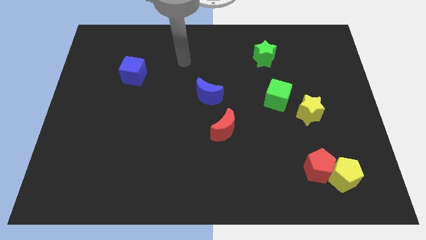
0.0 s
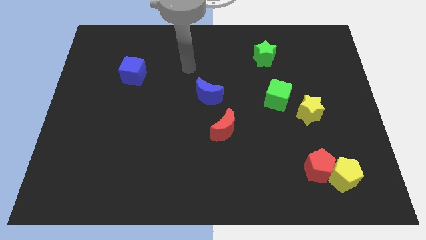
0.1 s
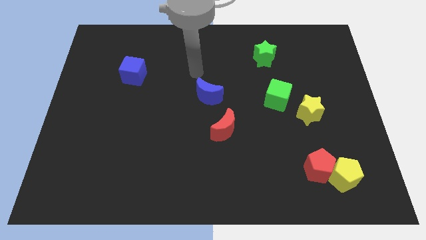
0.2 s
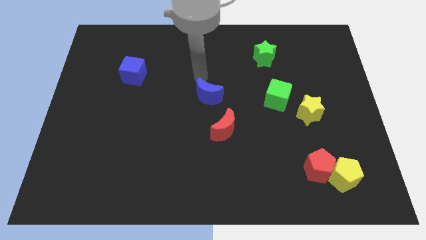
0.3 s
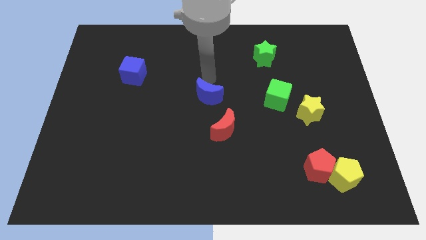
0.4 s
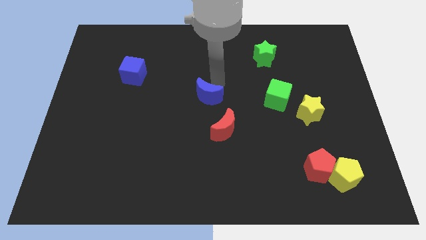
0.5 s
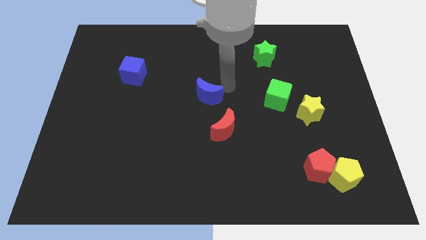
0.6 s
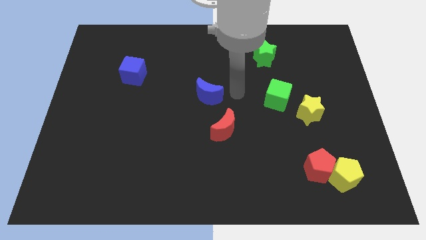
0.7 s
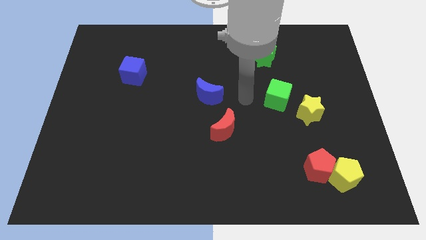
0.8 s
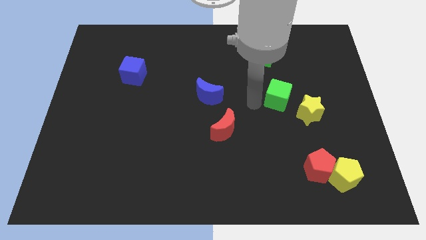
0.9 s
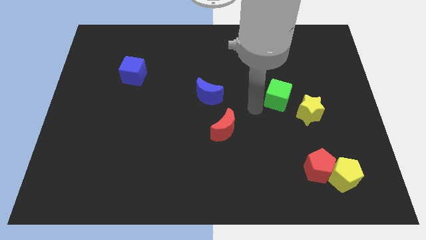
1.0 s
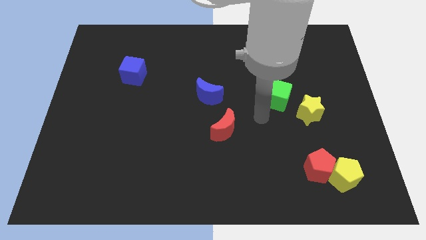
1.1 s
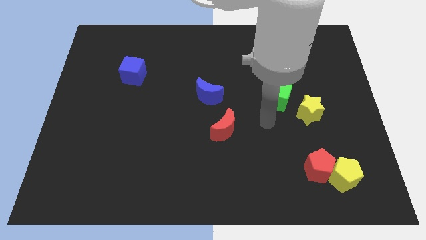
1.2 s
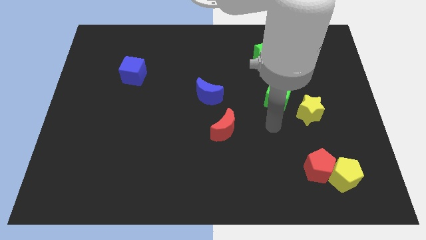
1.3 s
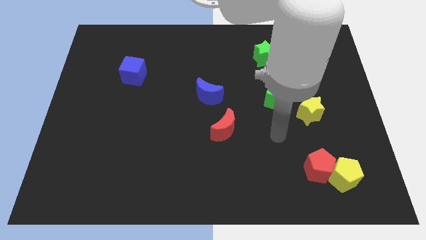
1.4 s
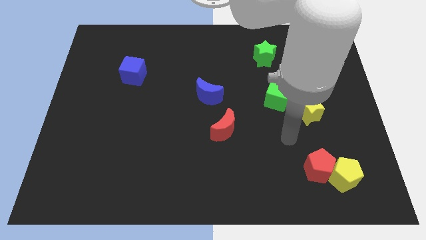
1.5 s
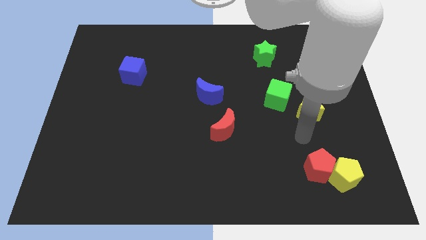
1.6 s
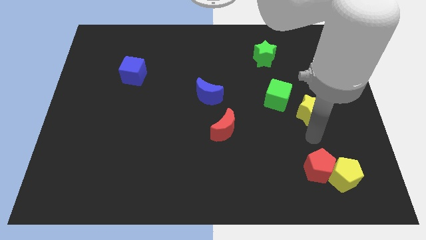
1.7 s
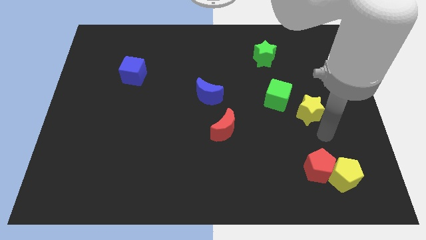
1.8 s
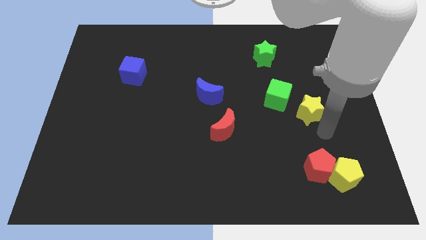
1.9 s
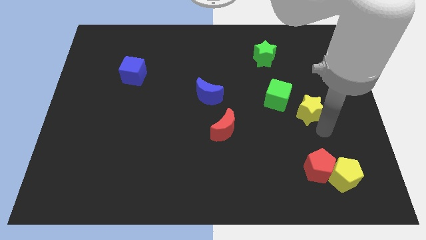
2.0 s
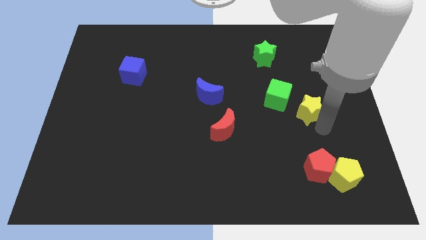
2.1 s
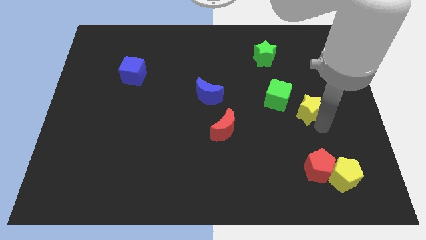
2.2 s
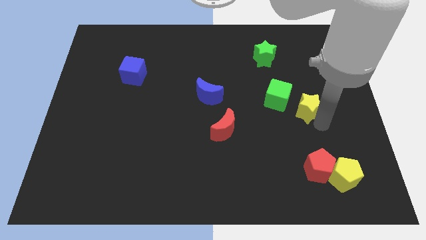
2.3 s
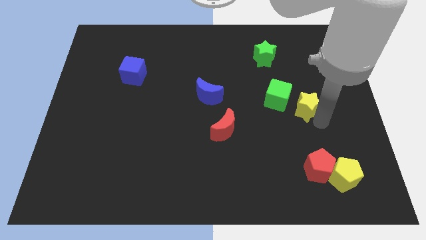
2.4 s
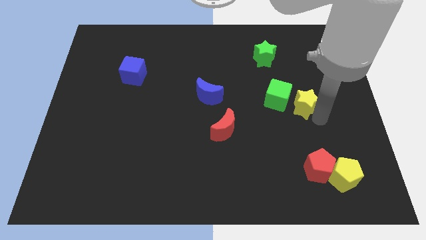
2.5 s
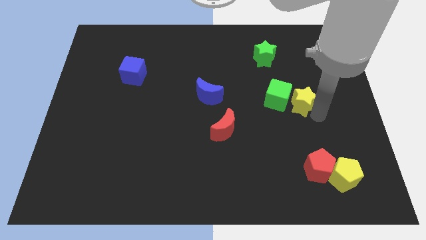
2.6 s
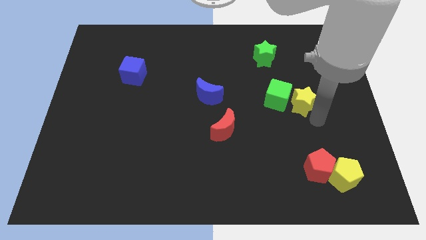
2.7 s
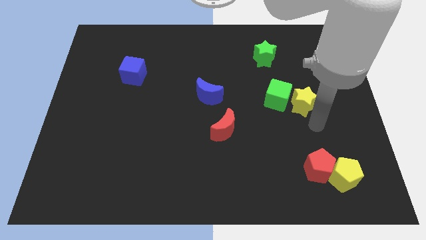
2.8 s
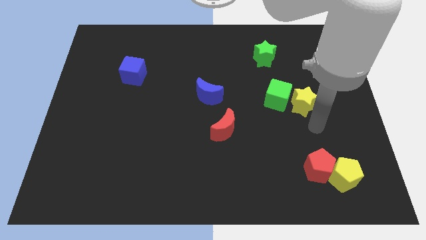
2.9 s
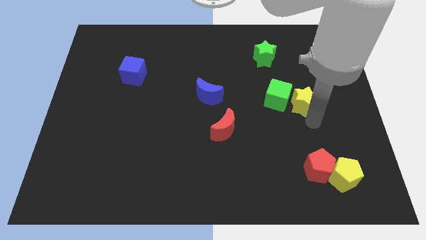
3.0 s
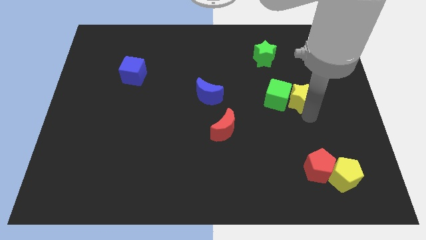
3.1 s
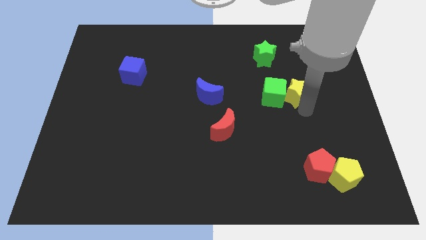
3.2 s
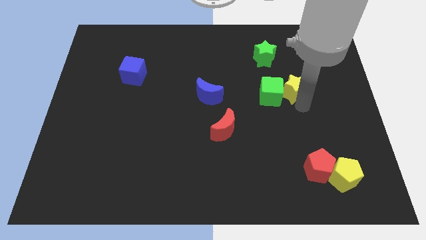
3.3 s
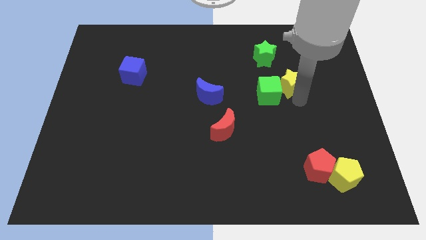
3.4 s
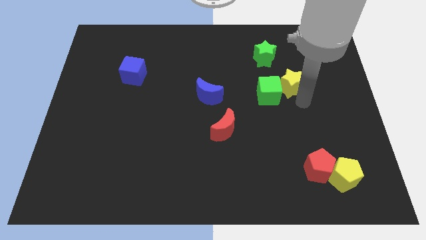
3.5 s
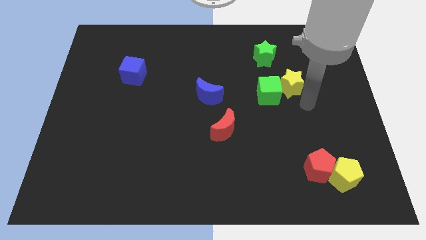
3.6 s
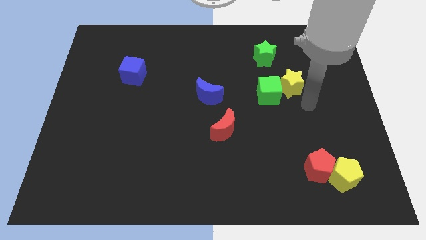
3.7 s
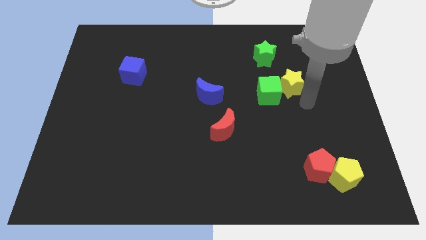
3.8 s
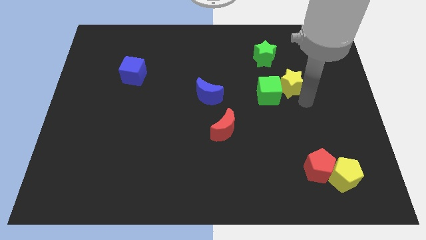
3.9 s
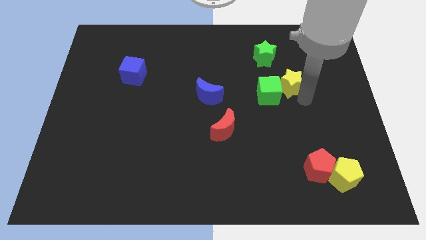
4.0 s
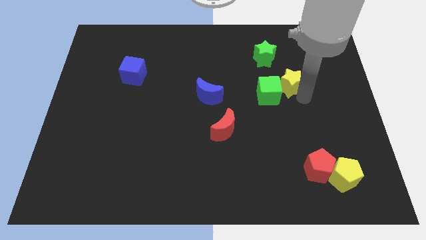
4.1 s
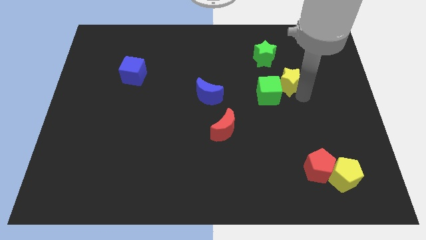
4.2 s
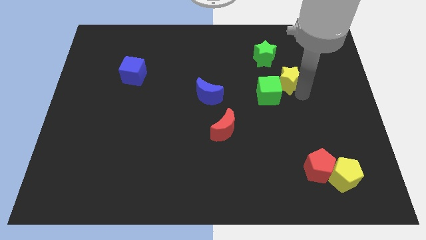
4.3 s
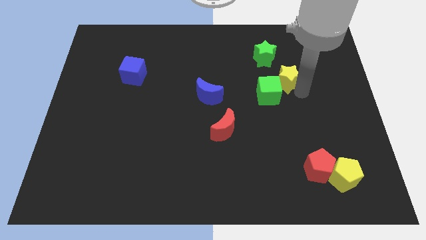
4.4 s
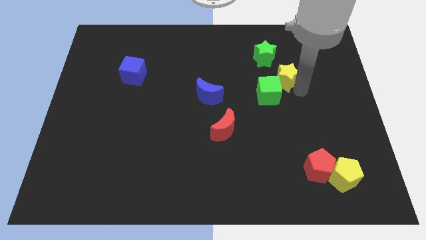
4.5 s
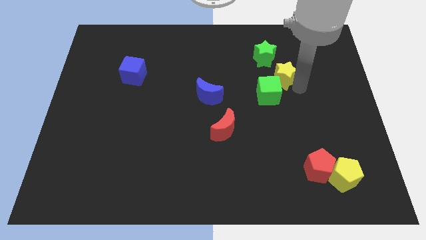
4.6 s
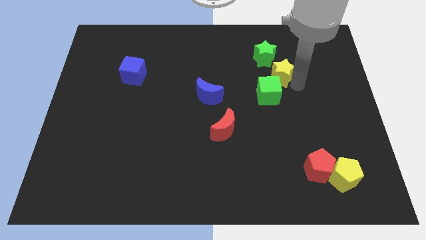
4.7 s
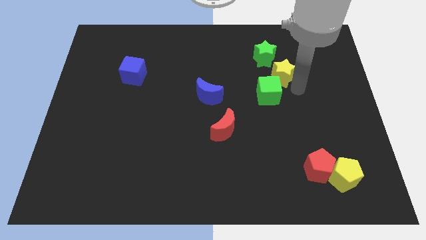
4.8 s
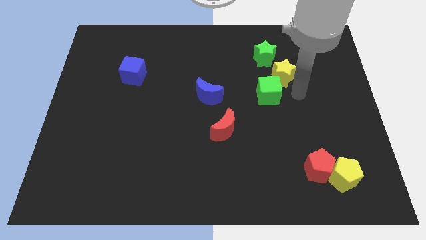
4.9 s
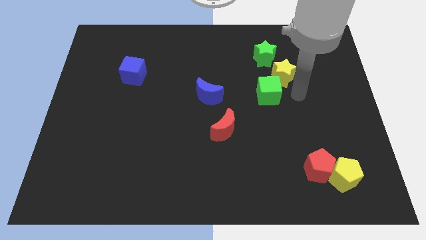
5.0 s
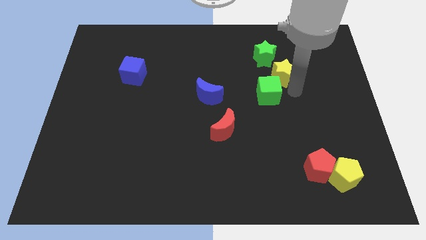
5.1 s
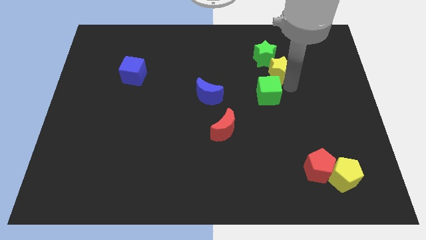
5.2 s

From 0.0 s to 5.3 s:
push the yellow star close to the green star

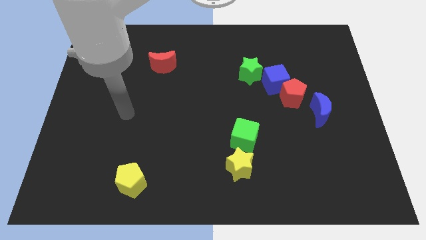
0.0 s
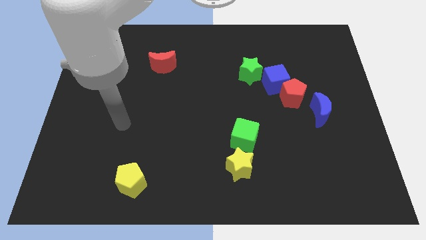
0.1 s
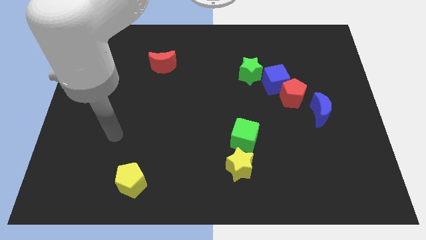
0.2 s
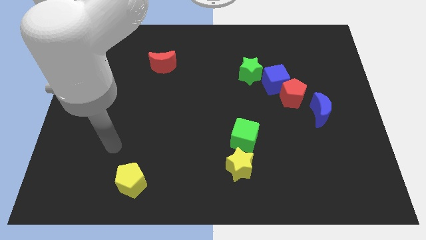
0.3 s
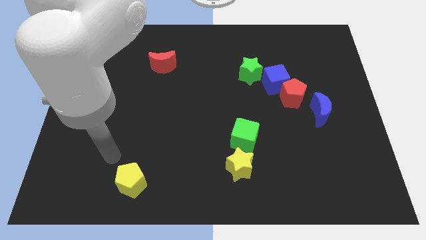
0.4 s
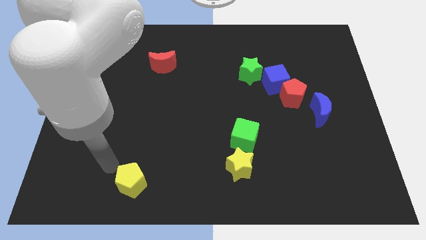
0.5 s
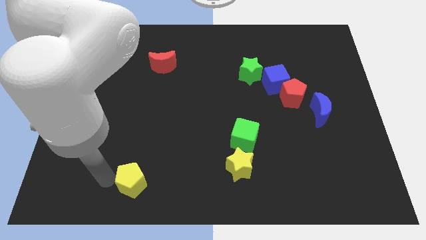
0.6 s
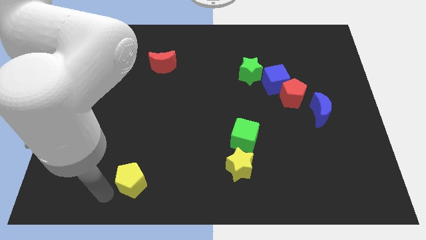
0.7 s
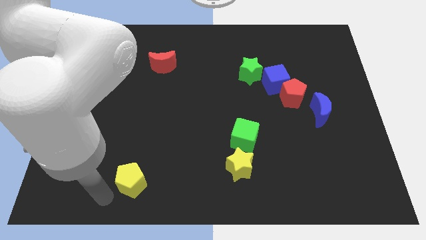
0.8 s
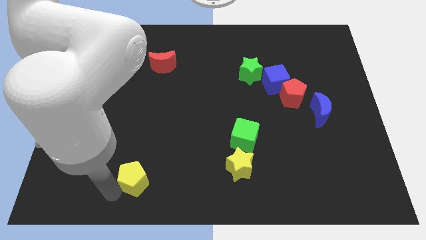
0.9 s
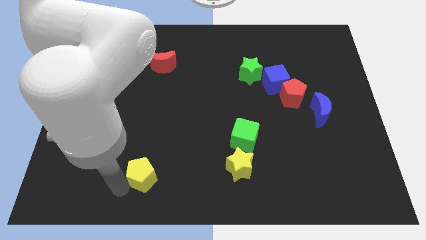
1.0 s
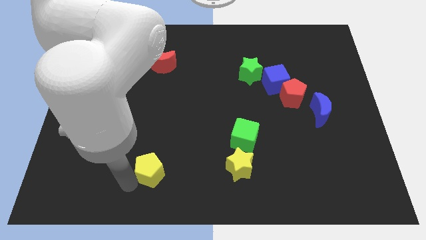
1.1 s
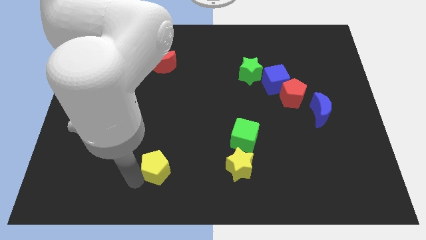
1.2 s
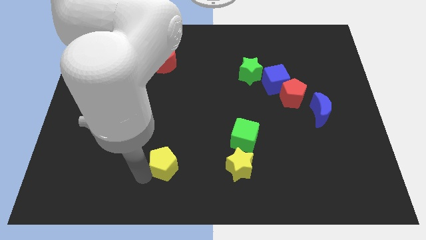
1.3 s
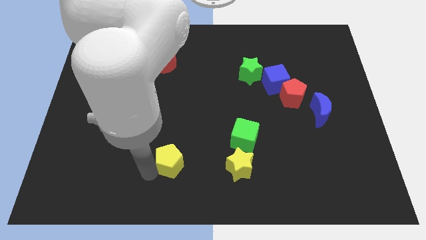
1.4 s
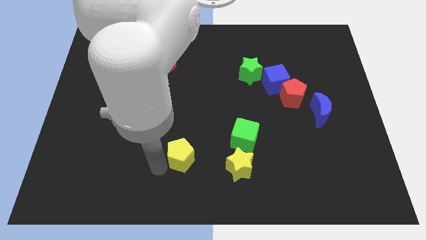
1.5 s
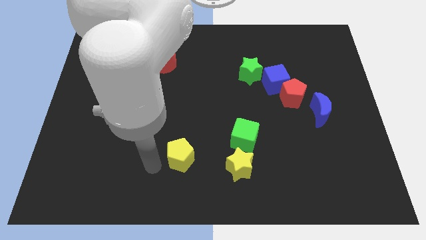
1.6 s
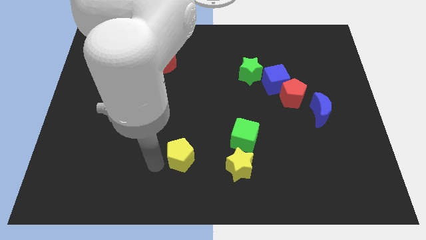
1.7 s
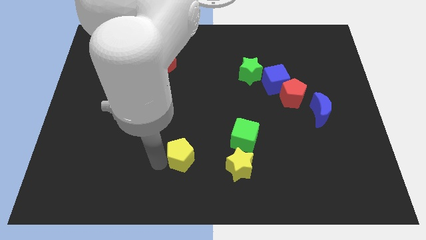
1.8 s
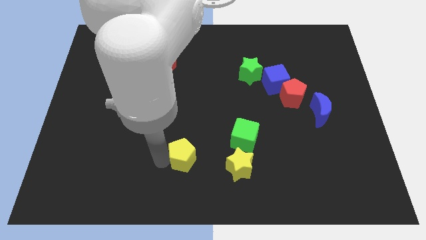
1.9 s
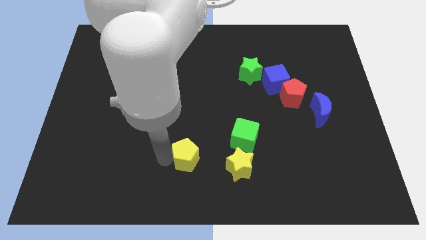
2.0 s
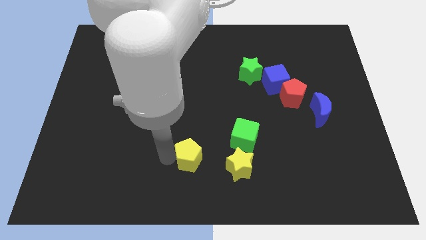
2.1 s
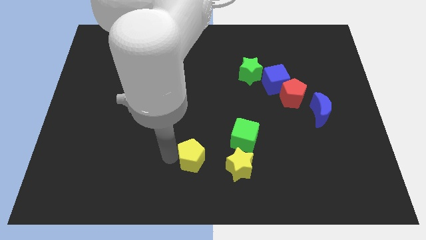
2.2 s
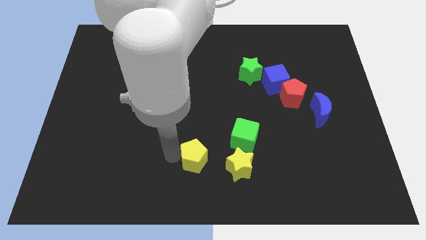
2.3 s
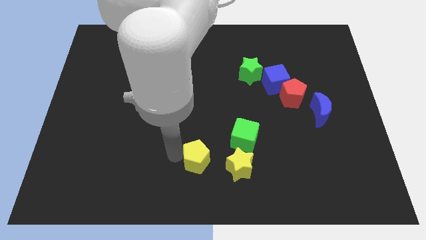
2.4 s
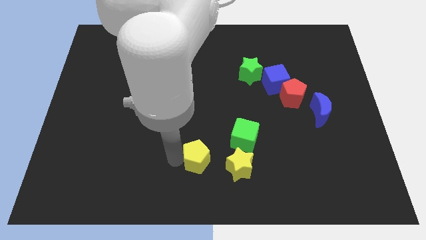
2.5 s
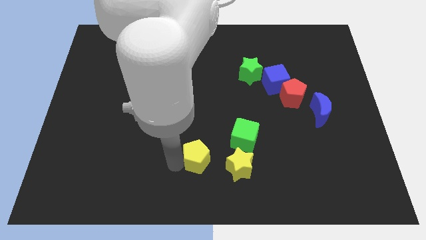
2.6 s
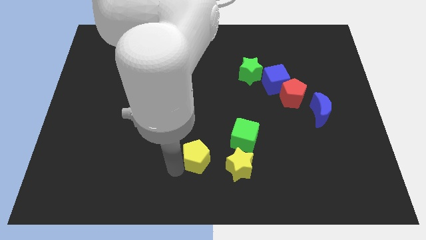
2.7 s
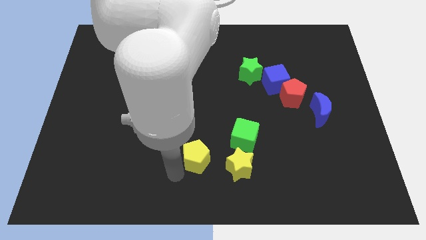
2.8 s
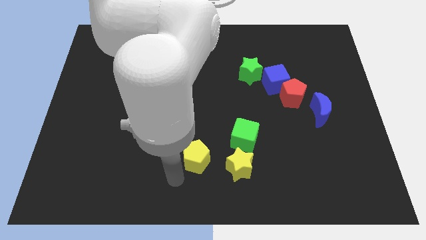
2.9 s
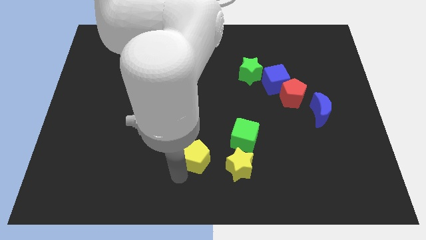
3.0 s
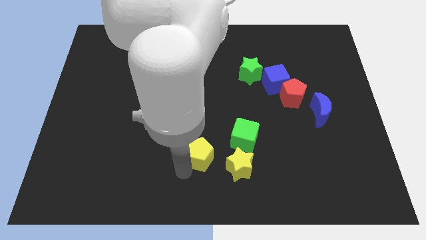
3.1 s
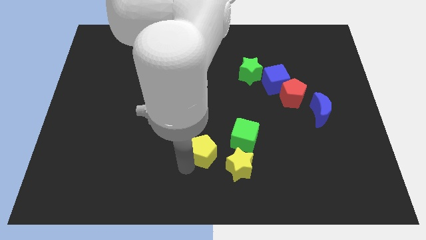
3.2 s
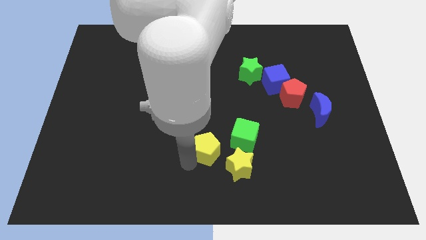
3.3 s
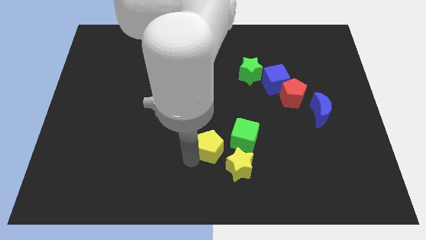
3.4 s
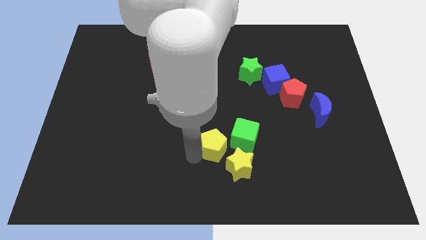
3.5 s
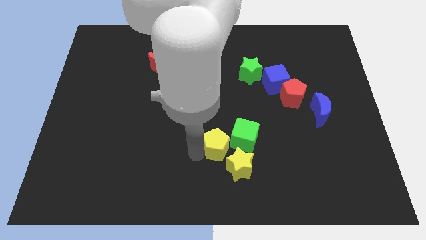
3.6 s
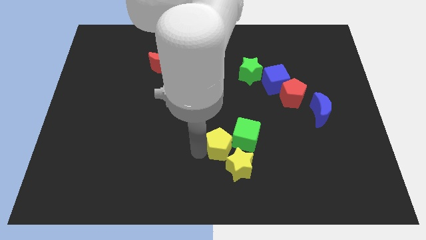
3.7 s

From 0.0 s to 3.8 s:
push the yellow pentagon close to the green cube
